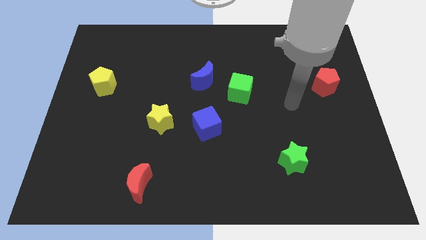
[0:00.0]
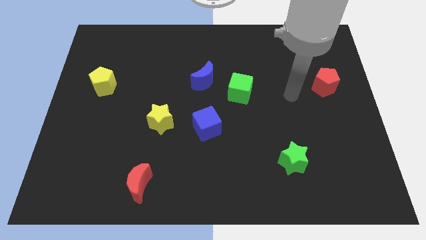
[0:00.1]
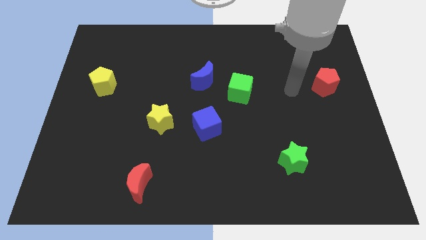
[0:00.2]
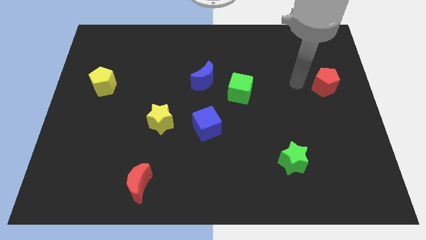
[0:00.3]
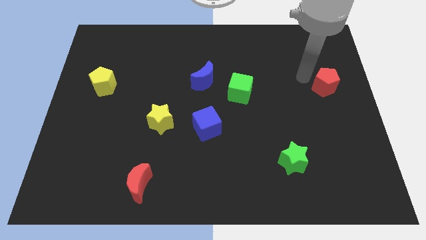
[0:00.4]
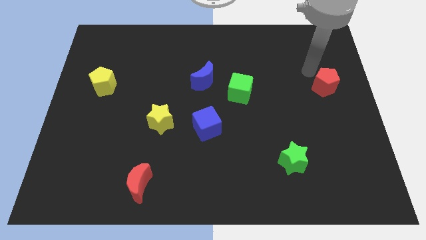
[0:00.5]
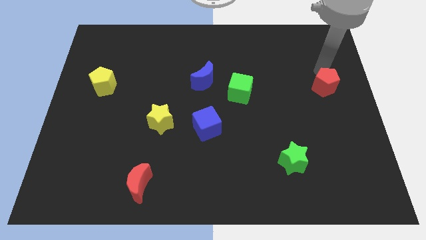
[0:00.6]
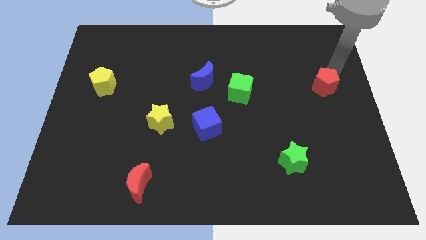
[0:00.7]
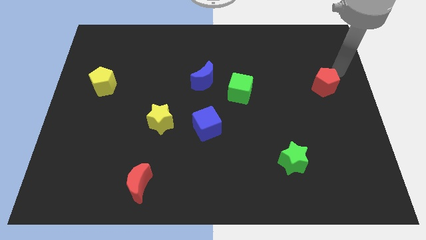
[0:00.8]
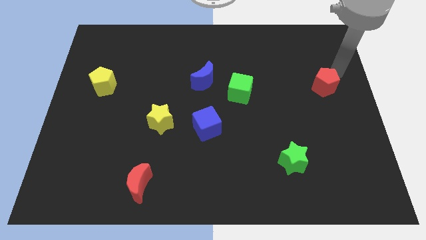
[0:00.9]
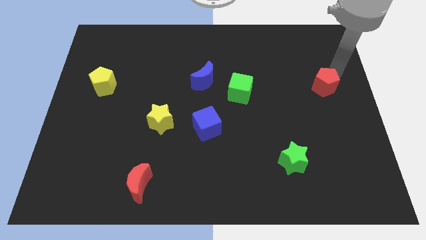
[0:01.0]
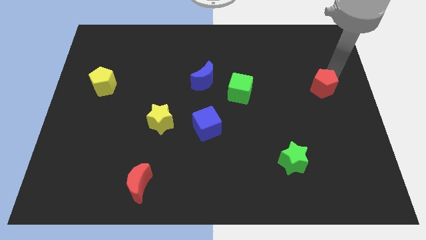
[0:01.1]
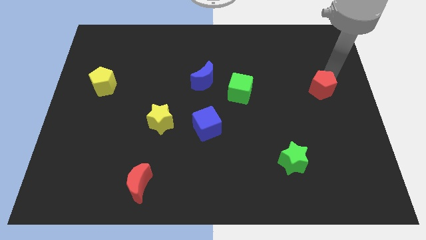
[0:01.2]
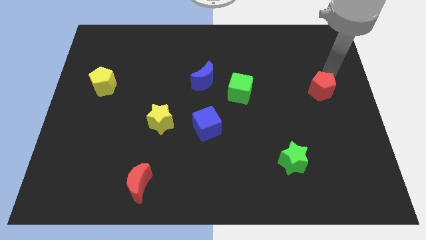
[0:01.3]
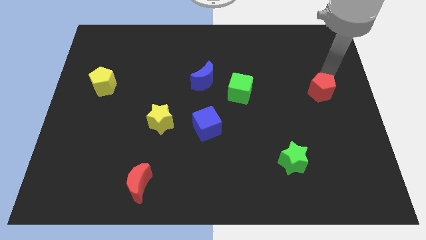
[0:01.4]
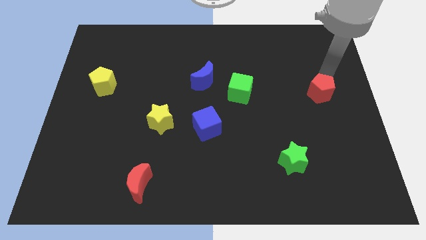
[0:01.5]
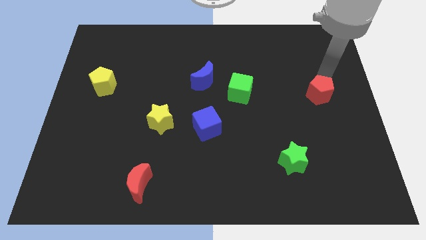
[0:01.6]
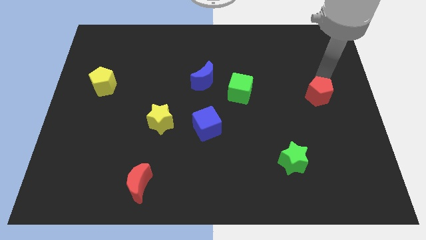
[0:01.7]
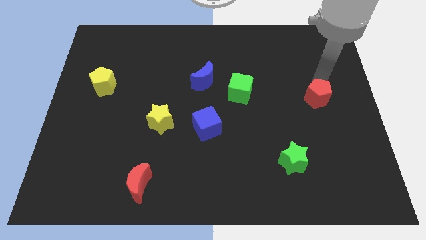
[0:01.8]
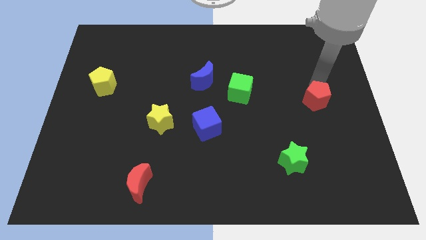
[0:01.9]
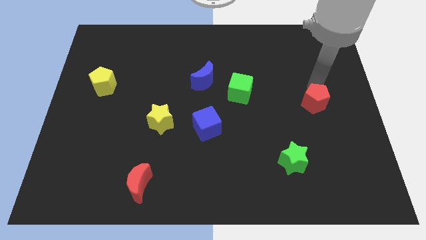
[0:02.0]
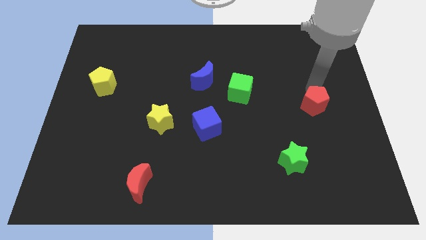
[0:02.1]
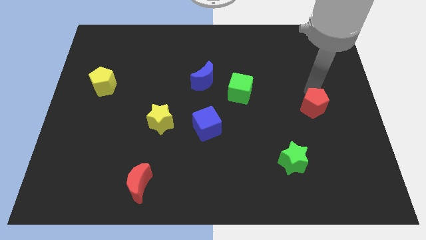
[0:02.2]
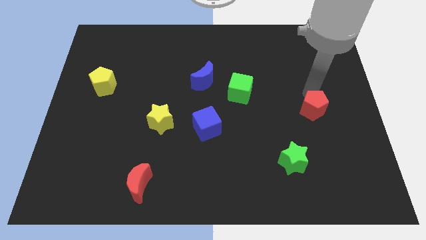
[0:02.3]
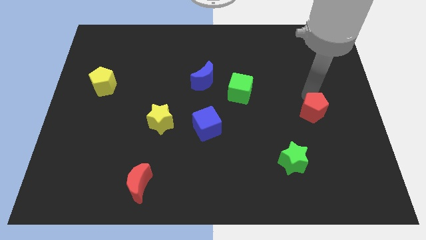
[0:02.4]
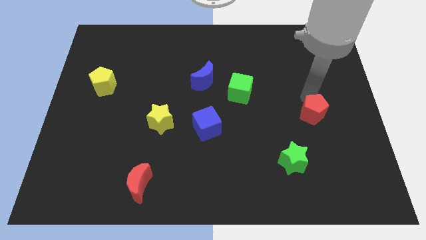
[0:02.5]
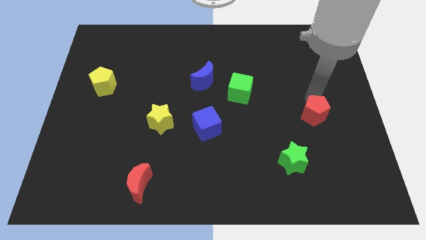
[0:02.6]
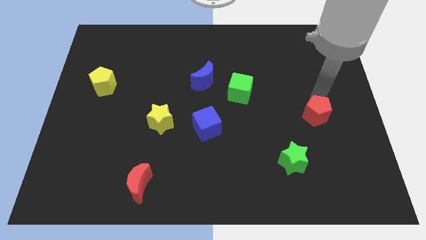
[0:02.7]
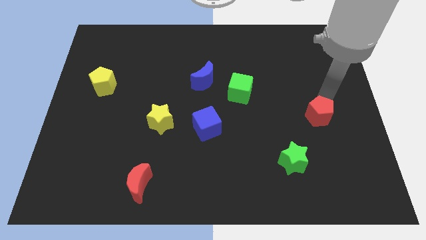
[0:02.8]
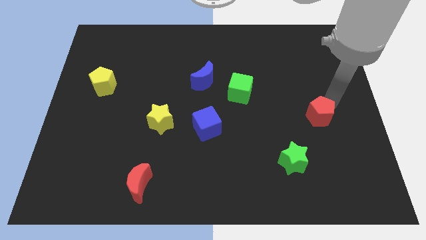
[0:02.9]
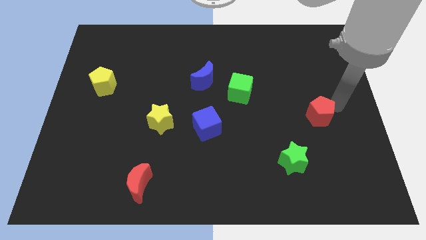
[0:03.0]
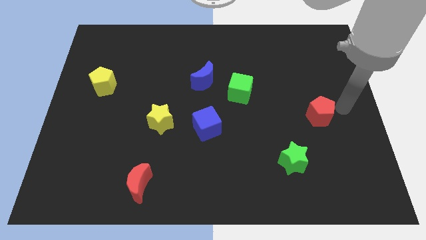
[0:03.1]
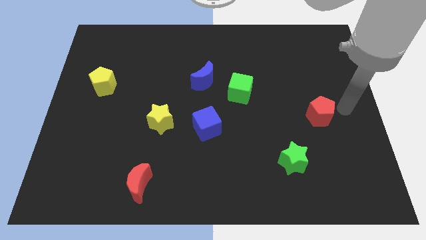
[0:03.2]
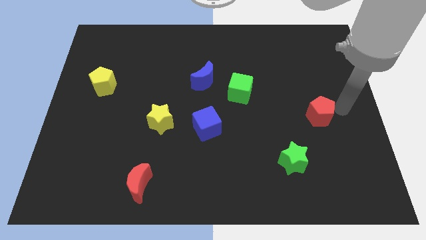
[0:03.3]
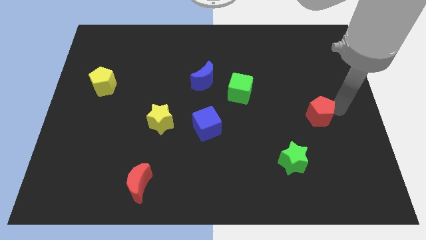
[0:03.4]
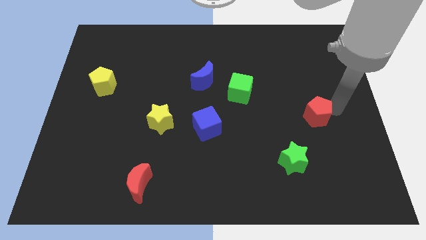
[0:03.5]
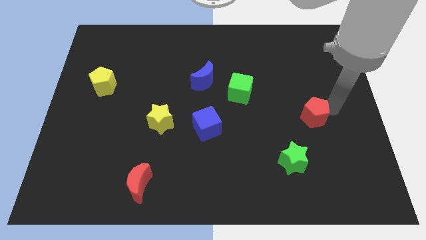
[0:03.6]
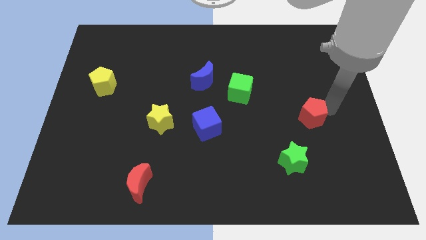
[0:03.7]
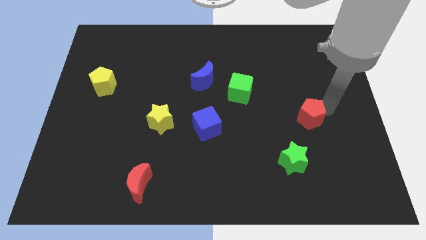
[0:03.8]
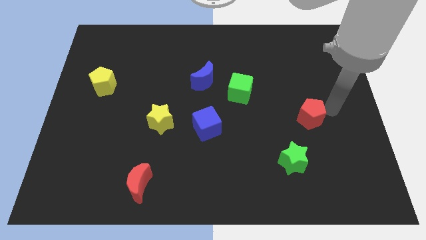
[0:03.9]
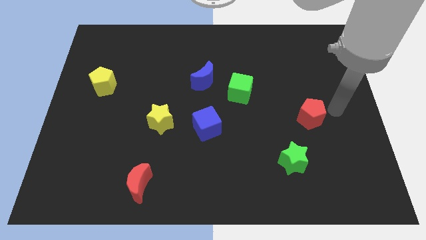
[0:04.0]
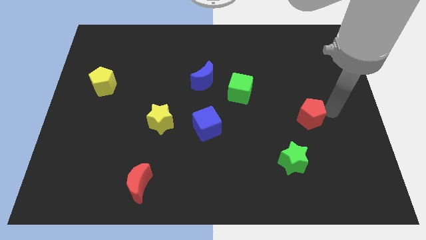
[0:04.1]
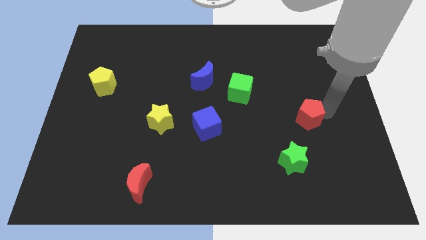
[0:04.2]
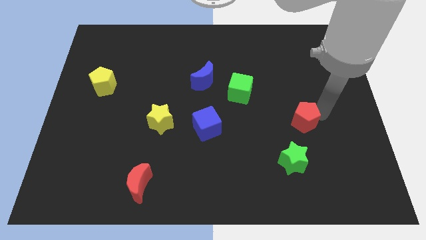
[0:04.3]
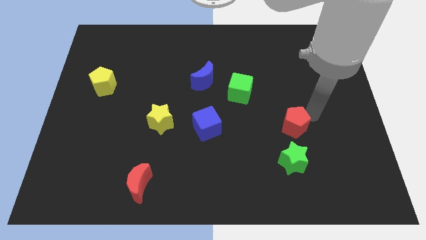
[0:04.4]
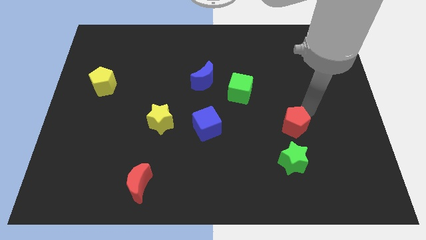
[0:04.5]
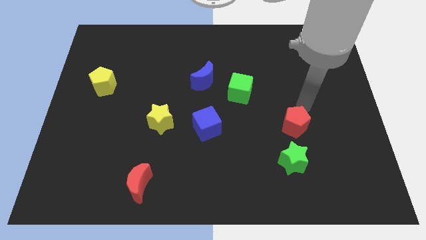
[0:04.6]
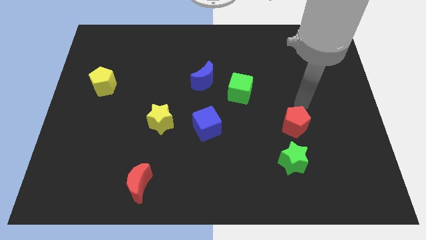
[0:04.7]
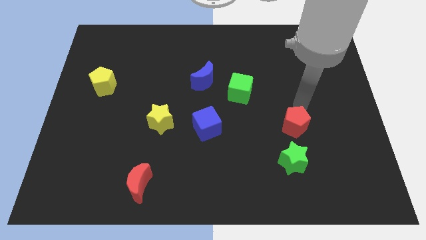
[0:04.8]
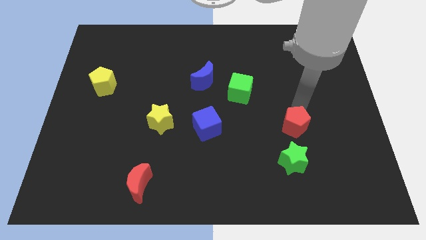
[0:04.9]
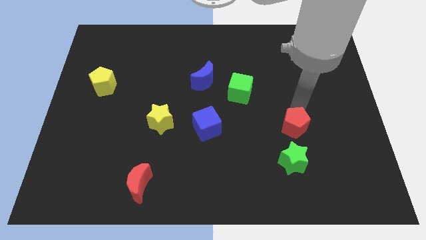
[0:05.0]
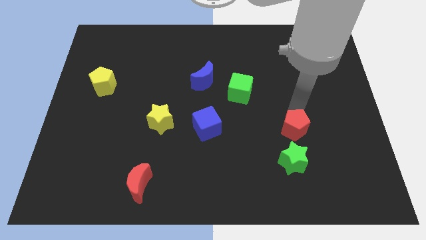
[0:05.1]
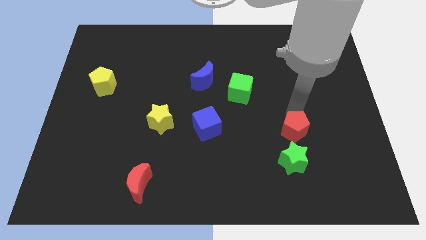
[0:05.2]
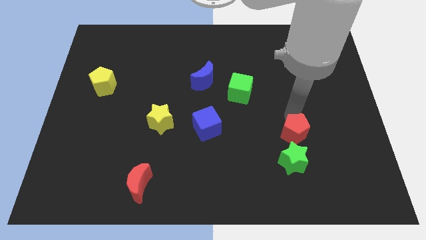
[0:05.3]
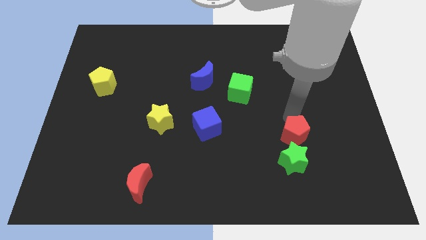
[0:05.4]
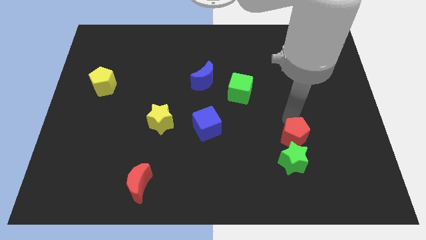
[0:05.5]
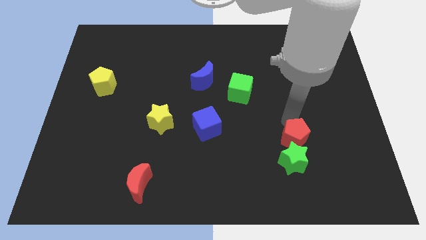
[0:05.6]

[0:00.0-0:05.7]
put the red pentagon close to the green star

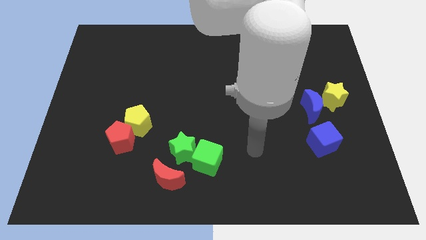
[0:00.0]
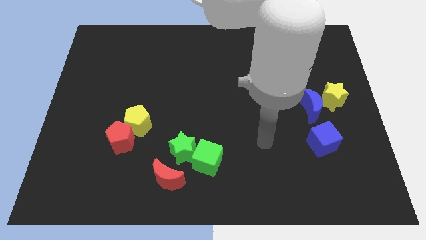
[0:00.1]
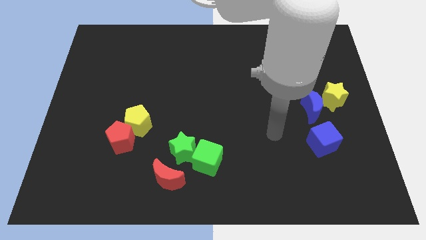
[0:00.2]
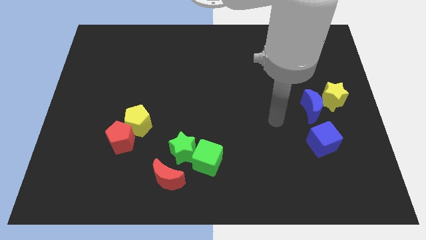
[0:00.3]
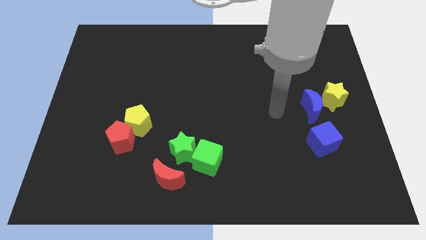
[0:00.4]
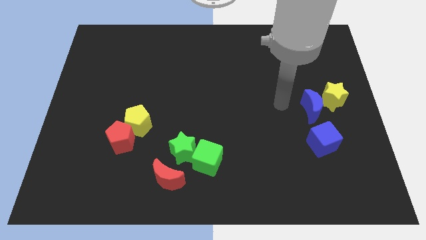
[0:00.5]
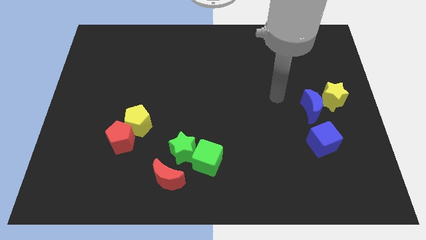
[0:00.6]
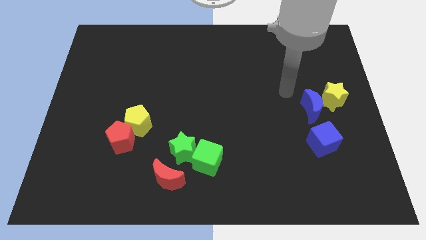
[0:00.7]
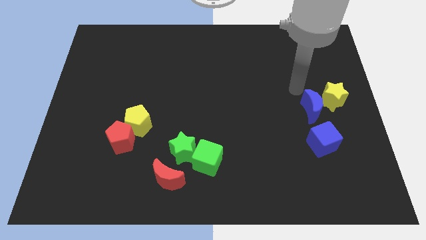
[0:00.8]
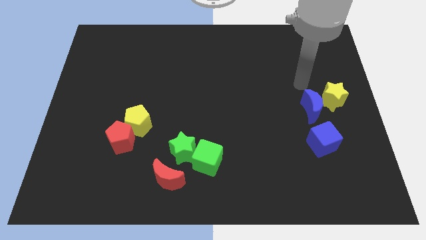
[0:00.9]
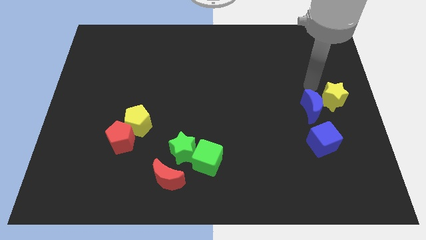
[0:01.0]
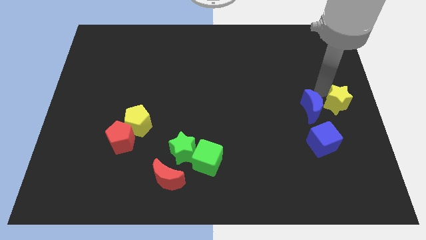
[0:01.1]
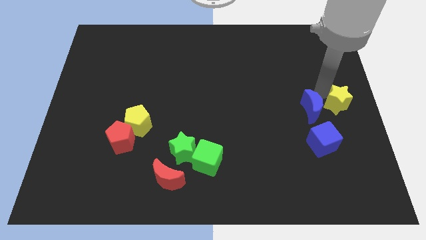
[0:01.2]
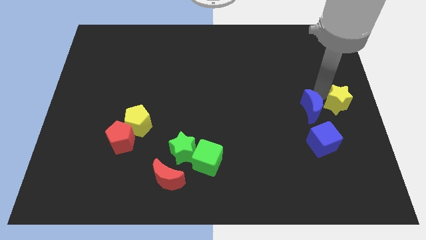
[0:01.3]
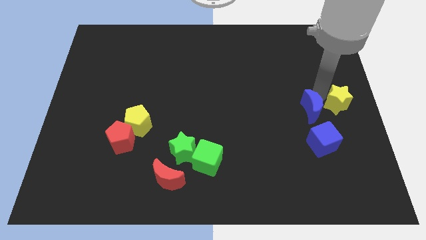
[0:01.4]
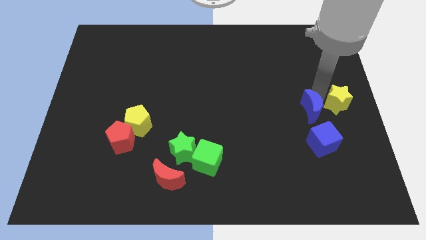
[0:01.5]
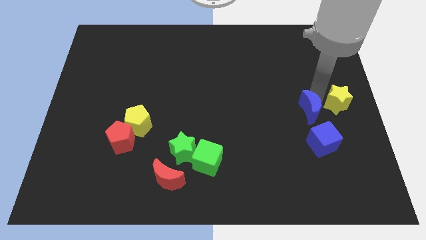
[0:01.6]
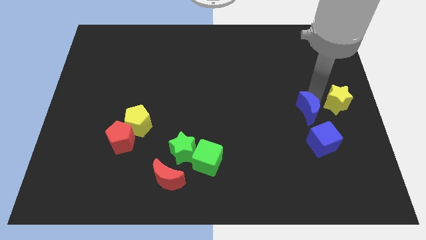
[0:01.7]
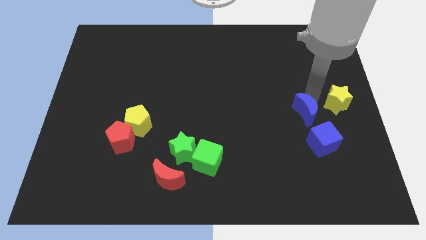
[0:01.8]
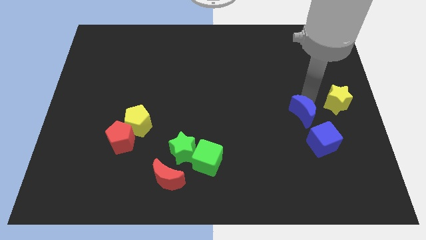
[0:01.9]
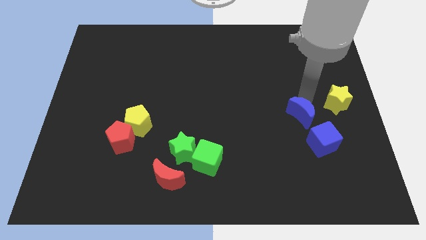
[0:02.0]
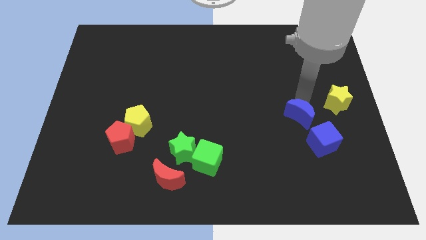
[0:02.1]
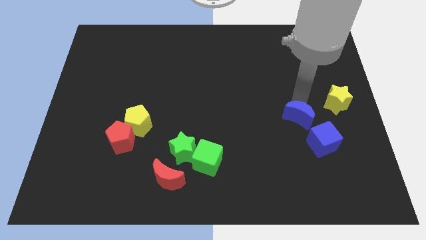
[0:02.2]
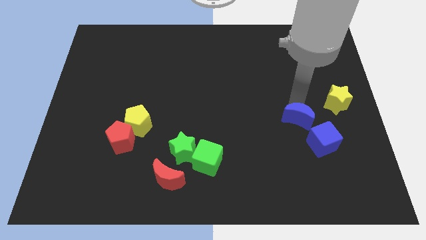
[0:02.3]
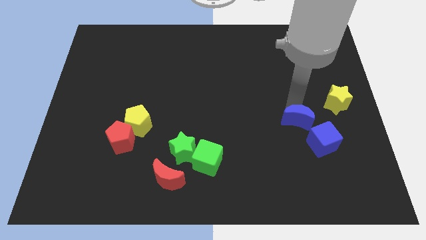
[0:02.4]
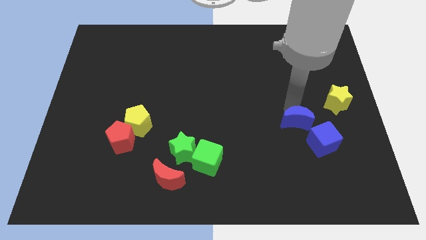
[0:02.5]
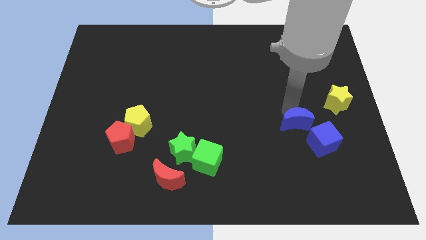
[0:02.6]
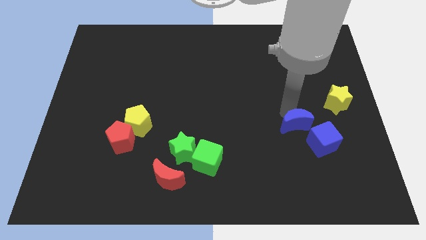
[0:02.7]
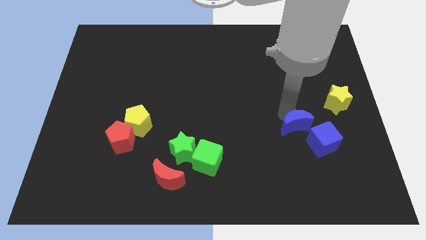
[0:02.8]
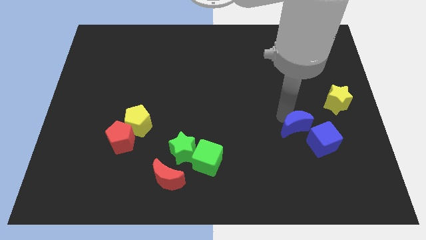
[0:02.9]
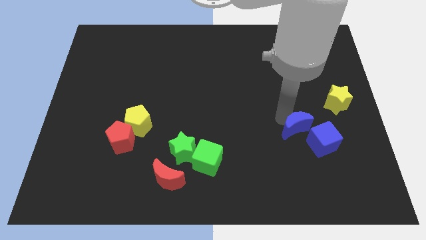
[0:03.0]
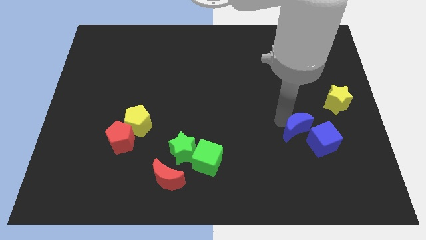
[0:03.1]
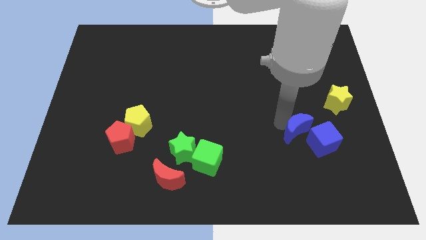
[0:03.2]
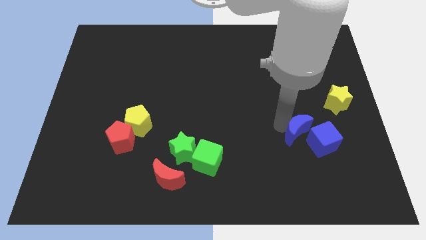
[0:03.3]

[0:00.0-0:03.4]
move the blue moon to the blue cube
